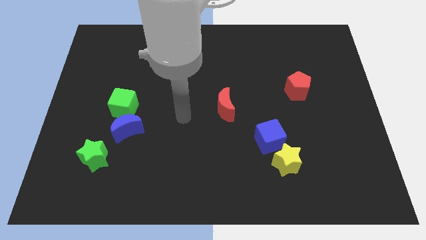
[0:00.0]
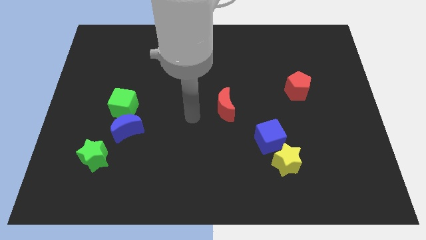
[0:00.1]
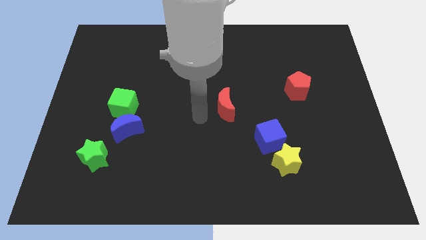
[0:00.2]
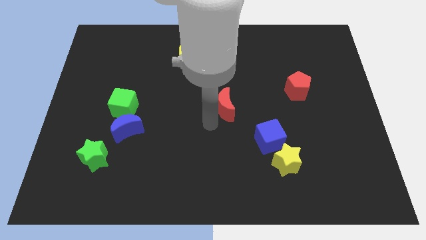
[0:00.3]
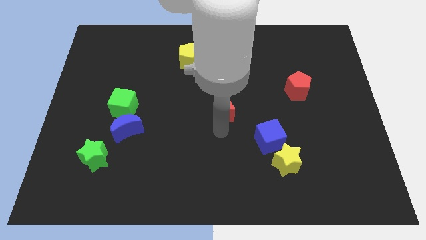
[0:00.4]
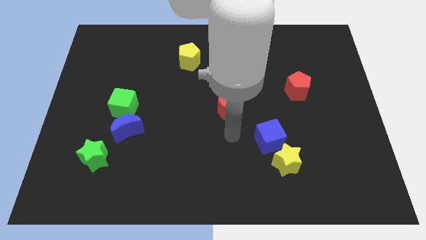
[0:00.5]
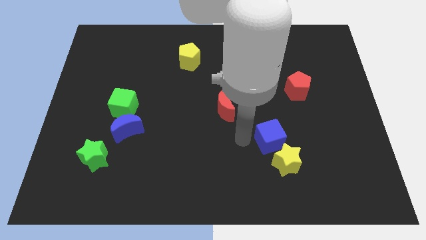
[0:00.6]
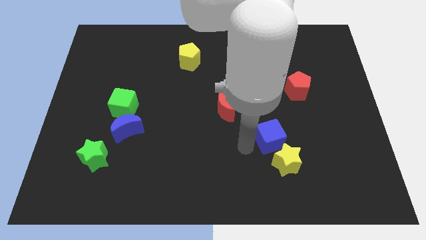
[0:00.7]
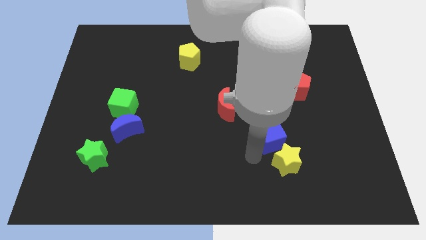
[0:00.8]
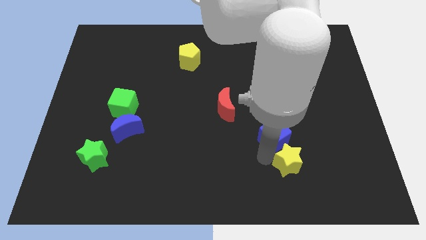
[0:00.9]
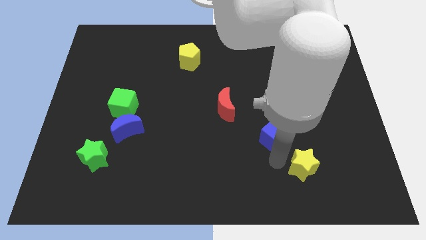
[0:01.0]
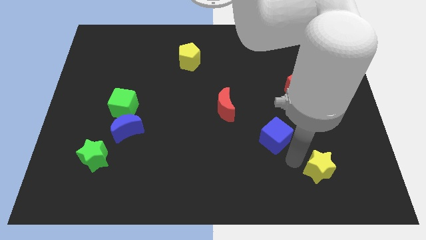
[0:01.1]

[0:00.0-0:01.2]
pull the blue cube apart from the yellow star

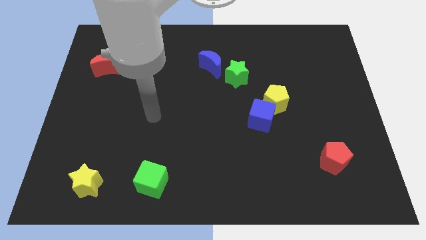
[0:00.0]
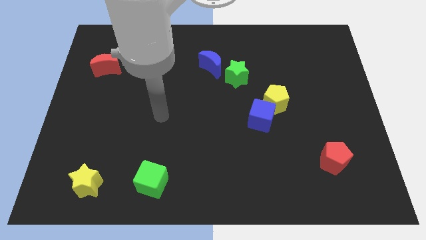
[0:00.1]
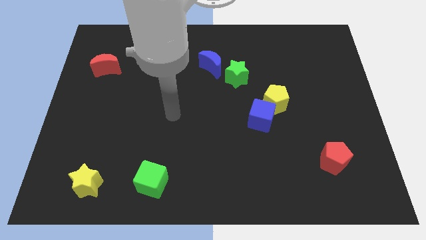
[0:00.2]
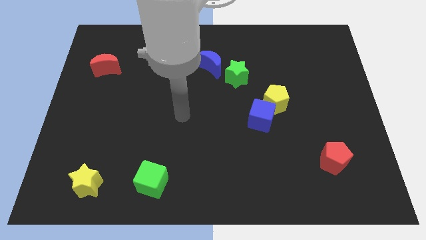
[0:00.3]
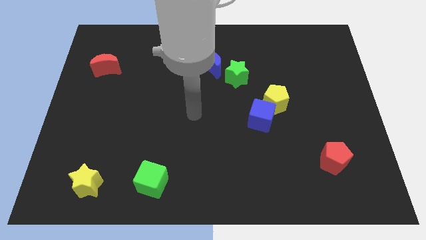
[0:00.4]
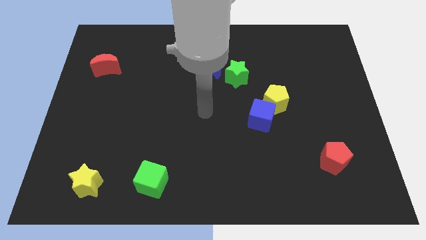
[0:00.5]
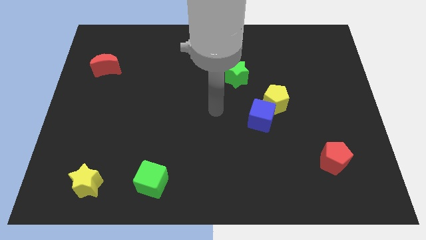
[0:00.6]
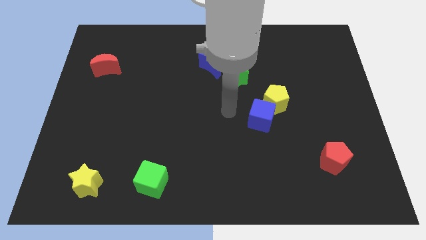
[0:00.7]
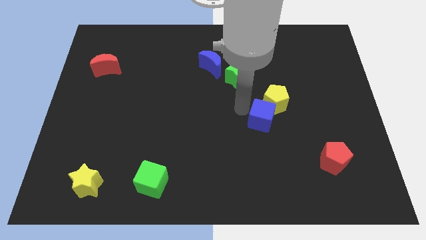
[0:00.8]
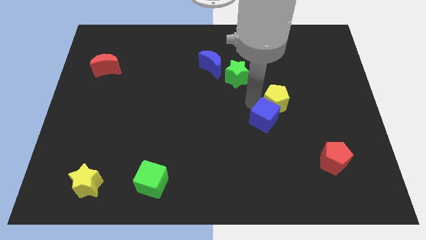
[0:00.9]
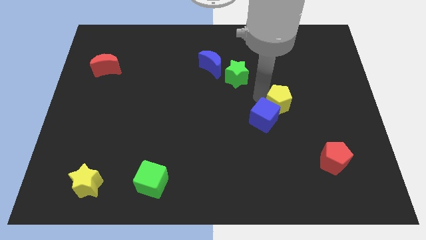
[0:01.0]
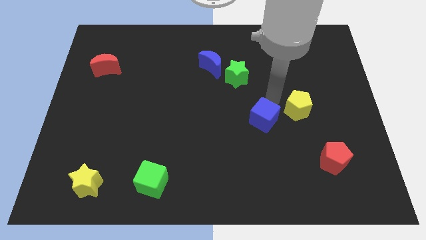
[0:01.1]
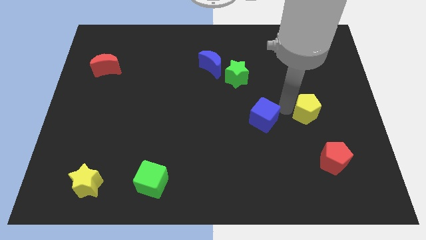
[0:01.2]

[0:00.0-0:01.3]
separate the blue cube from the yellow pentagon

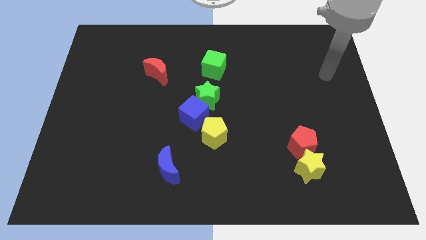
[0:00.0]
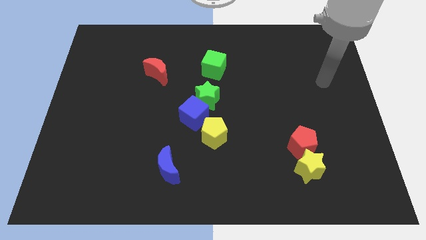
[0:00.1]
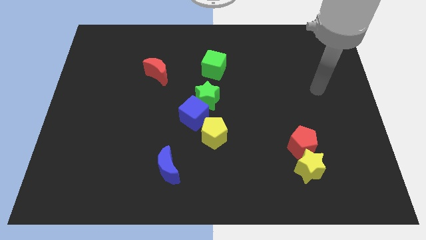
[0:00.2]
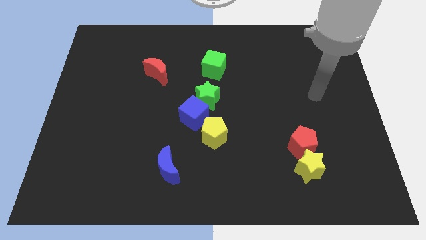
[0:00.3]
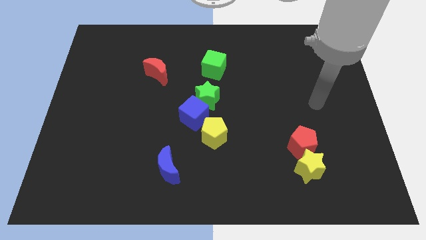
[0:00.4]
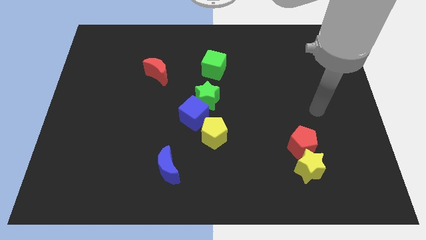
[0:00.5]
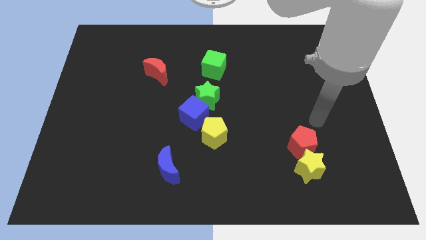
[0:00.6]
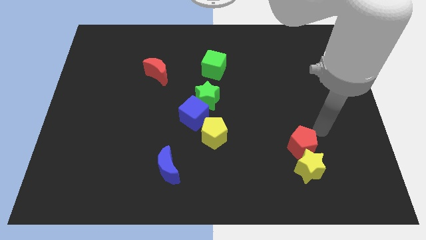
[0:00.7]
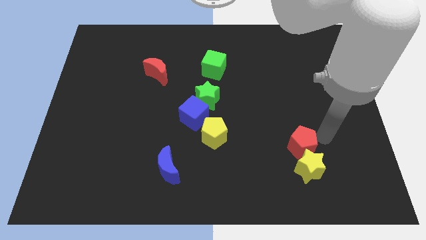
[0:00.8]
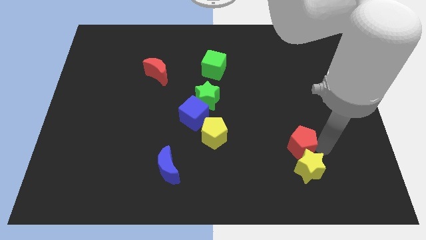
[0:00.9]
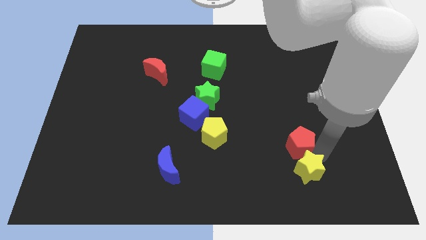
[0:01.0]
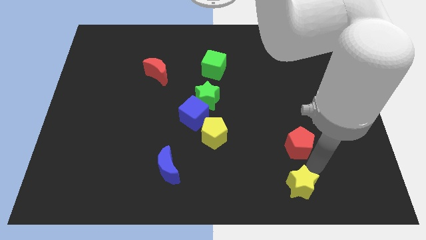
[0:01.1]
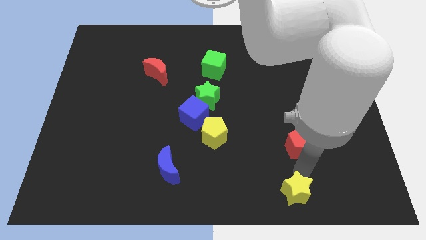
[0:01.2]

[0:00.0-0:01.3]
pull the red pentagon apart from the yellow star

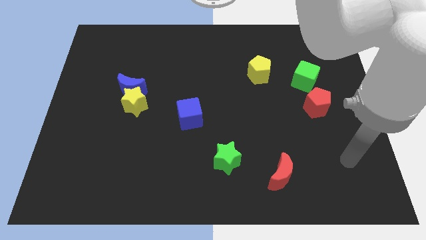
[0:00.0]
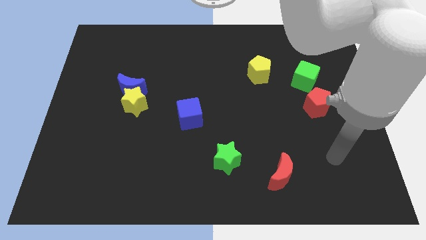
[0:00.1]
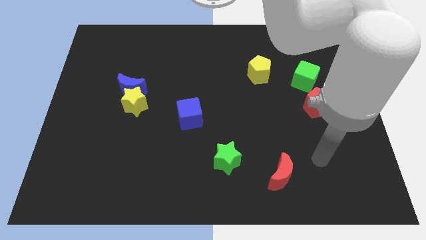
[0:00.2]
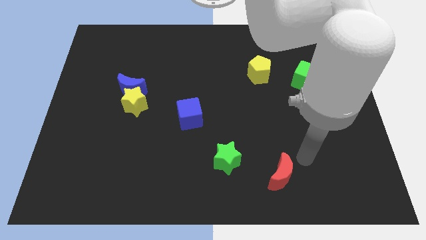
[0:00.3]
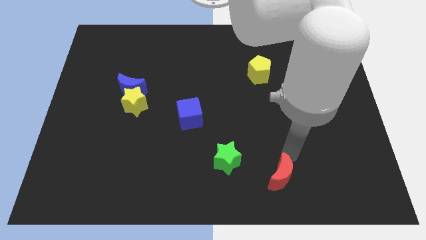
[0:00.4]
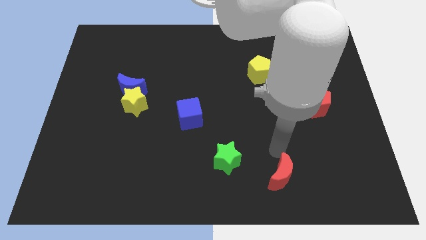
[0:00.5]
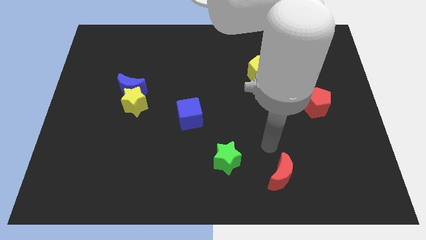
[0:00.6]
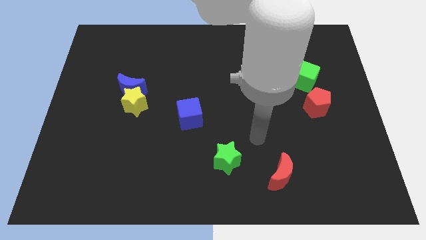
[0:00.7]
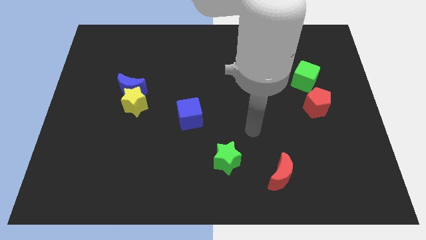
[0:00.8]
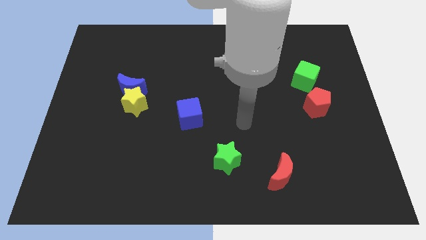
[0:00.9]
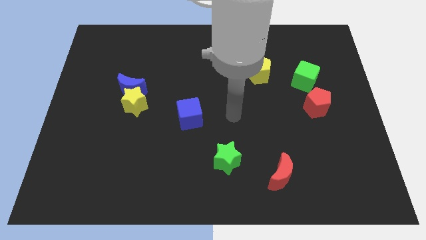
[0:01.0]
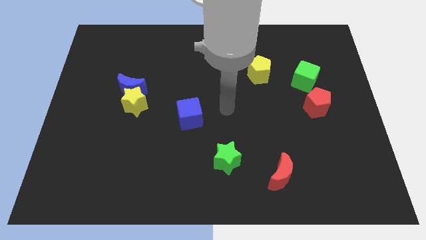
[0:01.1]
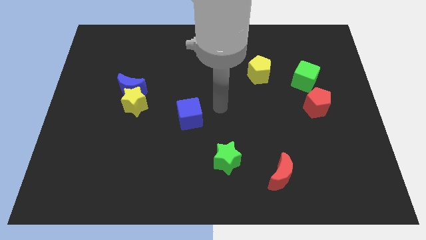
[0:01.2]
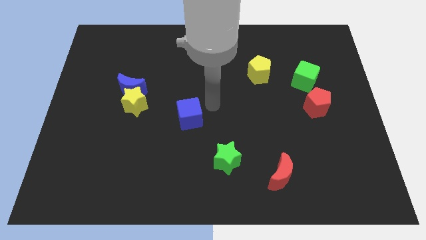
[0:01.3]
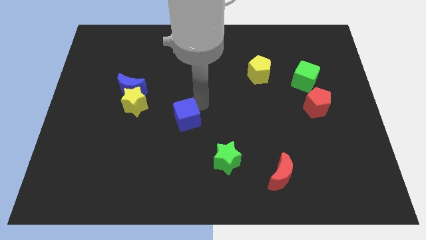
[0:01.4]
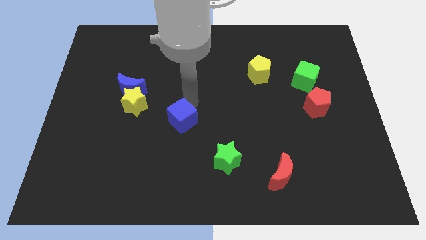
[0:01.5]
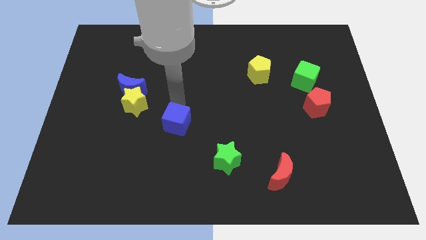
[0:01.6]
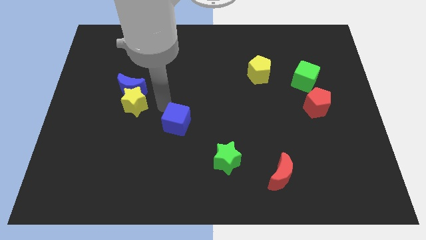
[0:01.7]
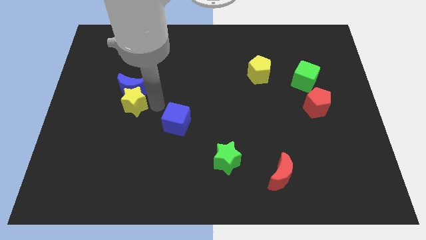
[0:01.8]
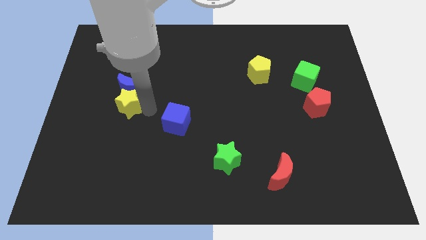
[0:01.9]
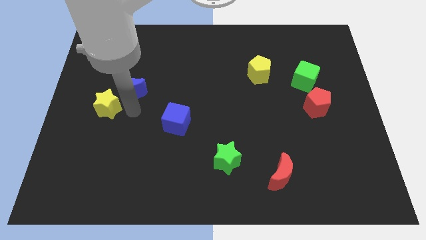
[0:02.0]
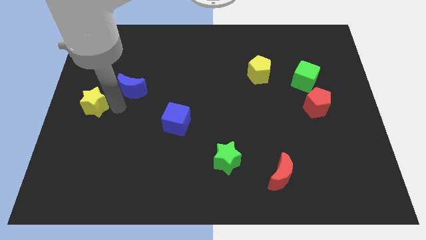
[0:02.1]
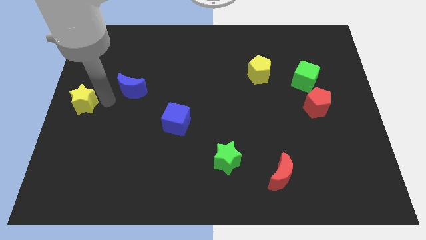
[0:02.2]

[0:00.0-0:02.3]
move the blue moon away from the yellow star

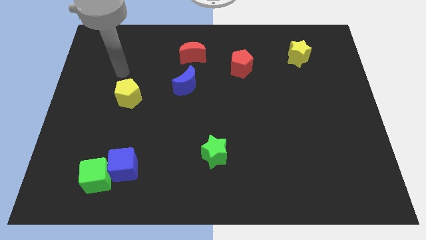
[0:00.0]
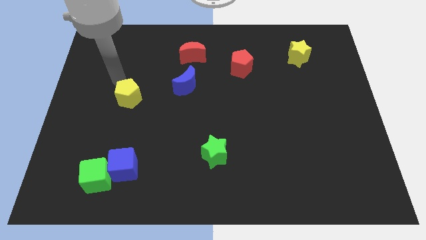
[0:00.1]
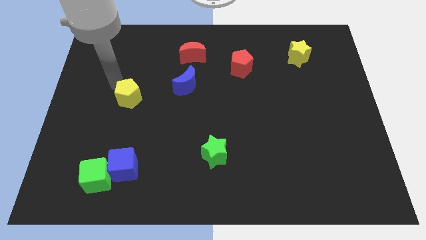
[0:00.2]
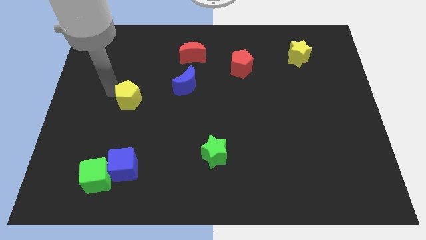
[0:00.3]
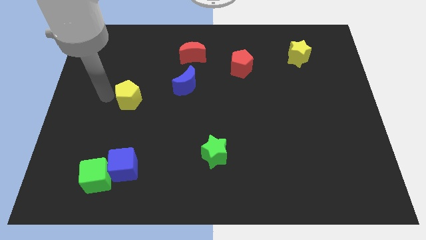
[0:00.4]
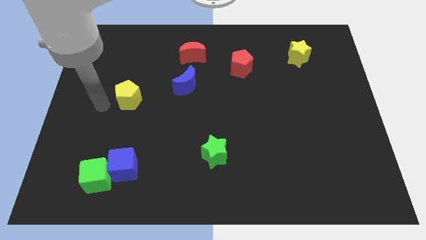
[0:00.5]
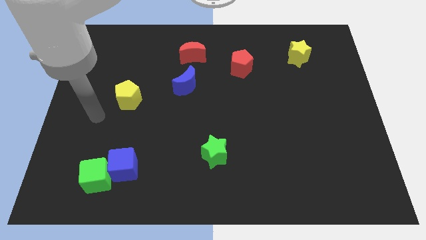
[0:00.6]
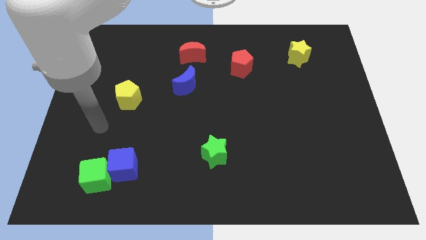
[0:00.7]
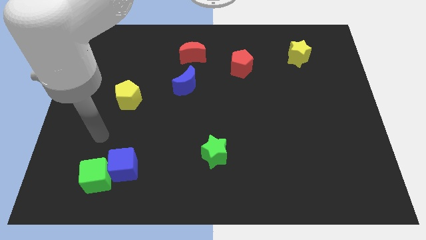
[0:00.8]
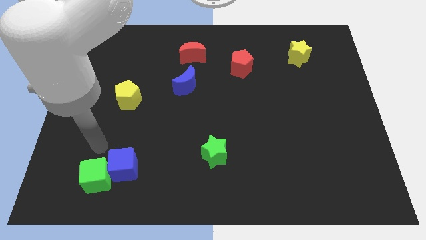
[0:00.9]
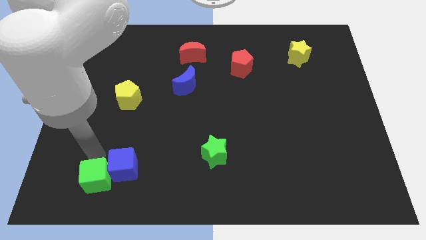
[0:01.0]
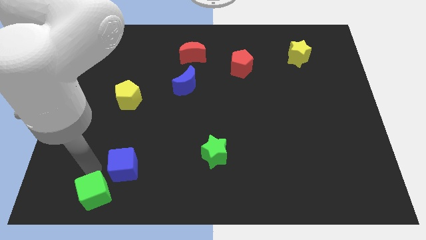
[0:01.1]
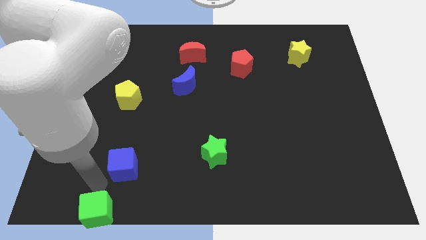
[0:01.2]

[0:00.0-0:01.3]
separate the blue cube from the green cube

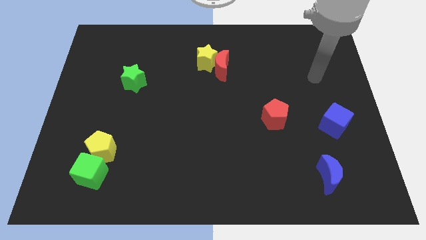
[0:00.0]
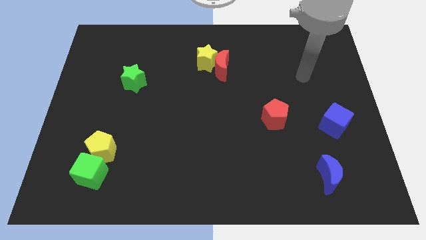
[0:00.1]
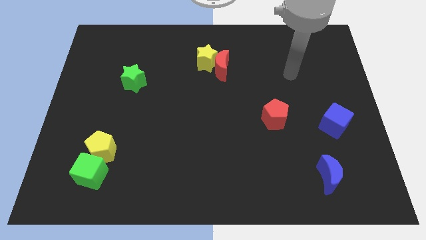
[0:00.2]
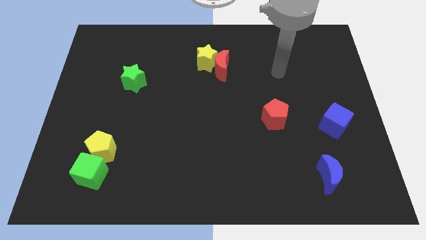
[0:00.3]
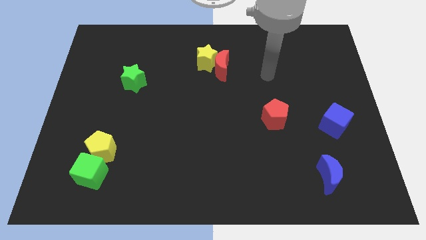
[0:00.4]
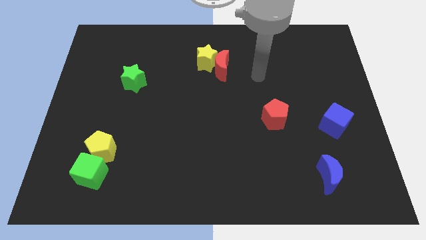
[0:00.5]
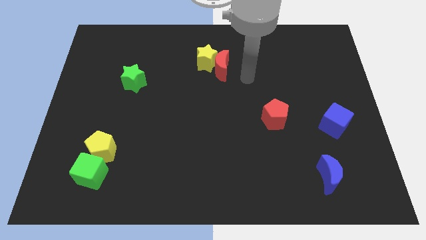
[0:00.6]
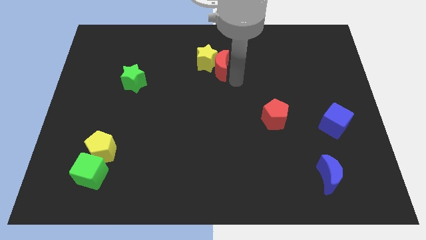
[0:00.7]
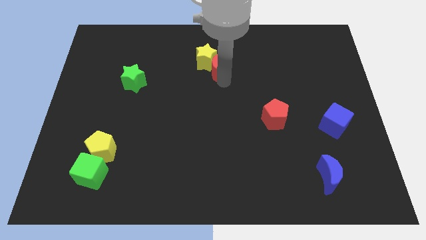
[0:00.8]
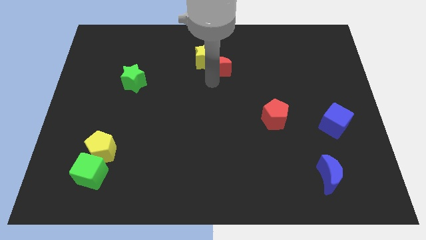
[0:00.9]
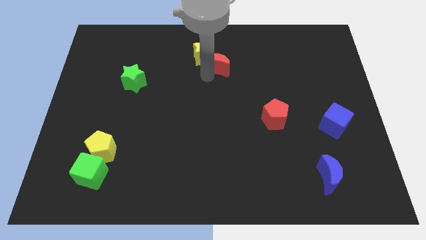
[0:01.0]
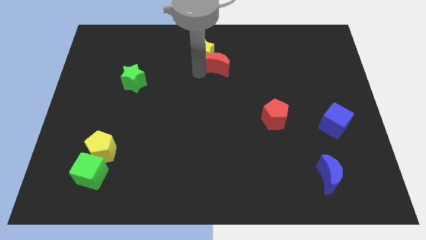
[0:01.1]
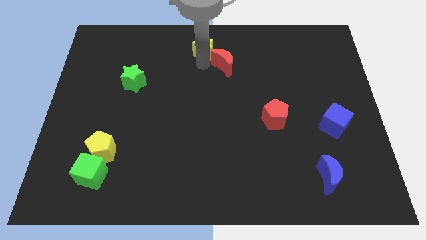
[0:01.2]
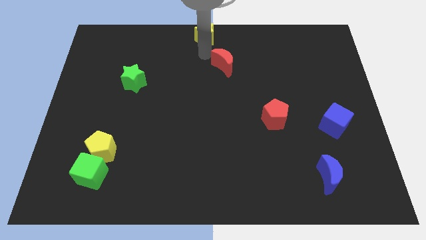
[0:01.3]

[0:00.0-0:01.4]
pull the red moon apart from the yellow star

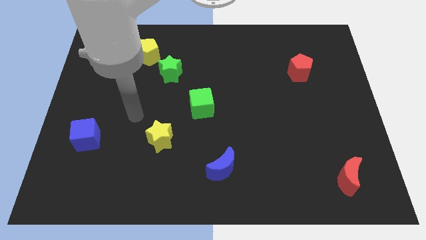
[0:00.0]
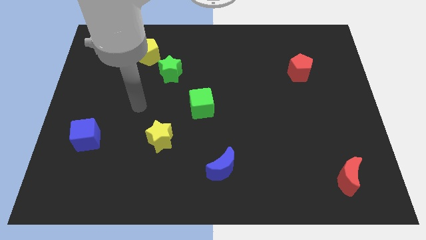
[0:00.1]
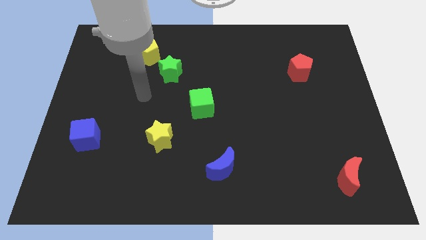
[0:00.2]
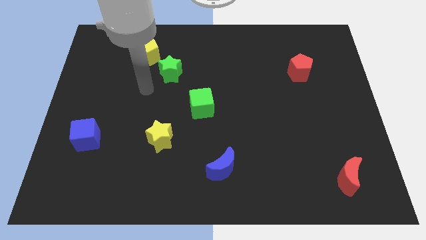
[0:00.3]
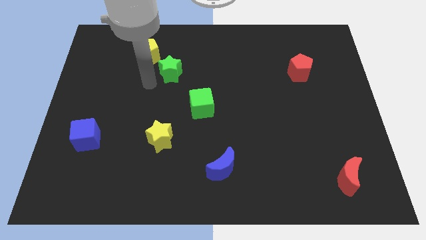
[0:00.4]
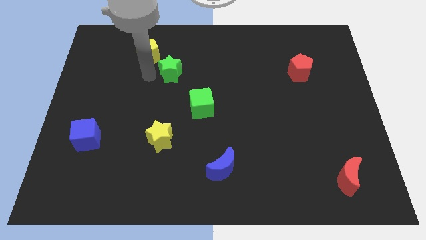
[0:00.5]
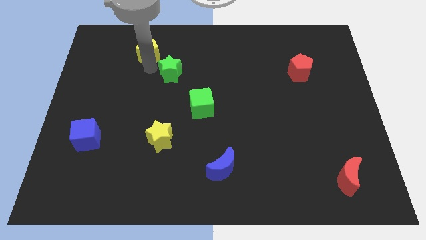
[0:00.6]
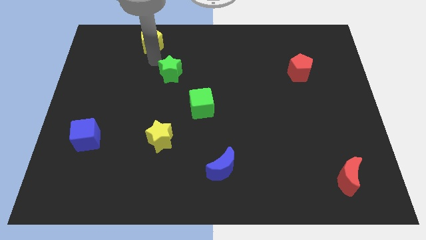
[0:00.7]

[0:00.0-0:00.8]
move the green star away from the yellow pentagon
